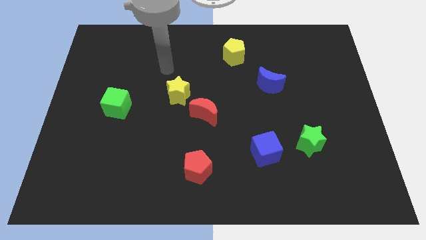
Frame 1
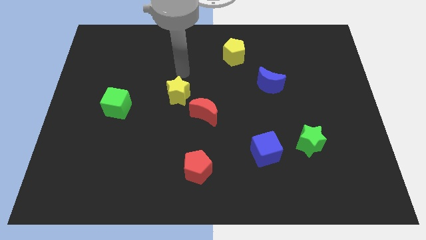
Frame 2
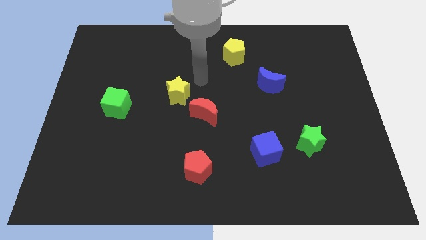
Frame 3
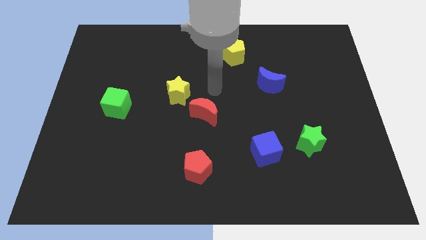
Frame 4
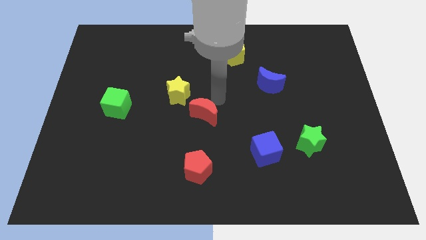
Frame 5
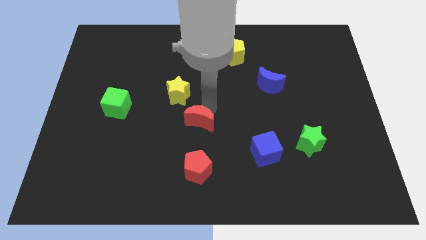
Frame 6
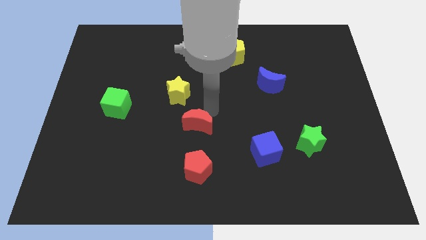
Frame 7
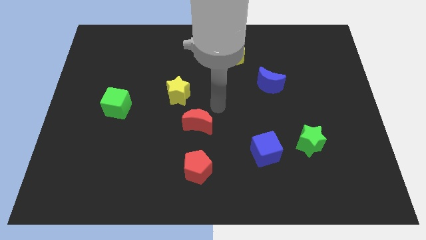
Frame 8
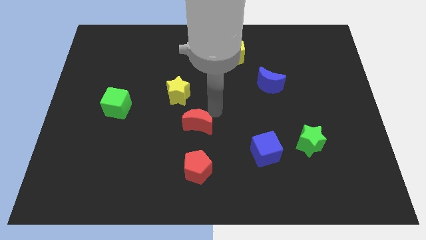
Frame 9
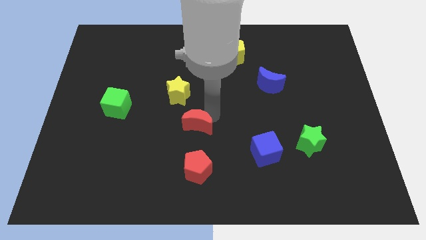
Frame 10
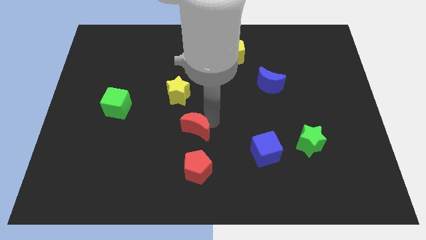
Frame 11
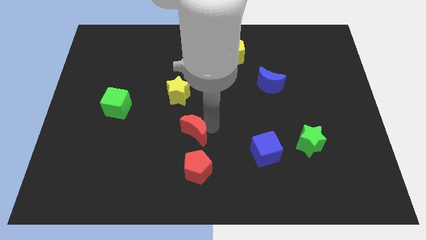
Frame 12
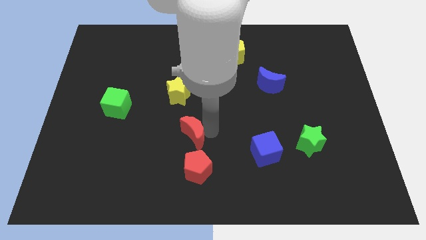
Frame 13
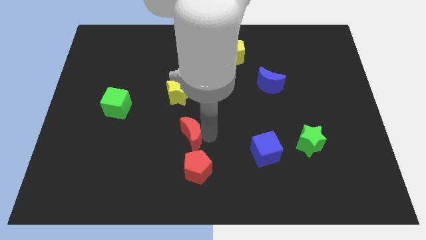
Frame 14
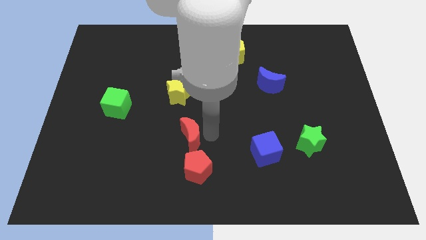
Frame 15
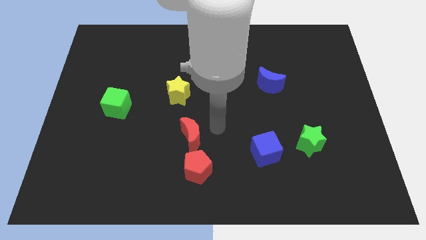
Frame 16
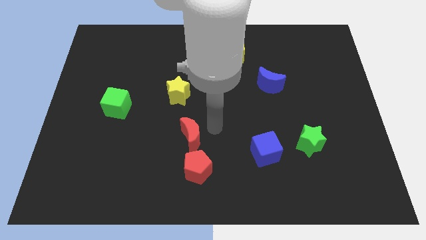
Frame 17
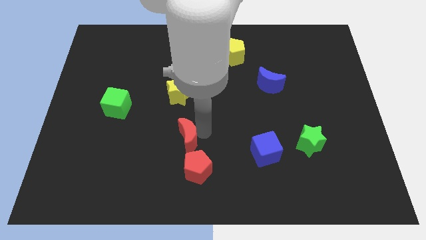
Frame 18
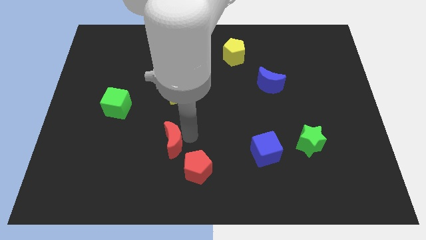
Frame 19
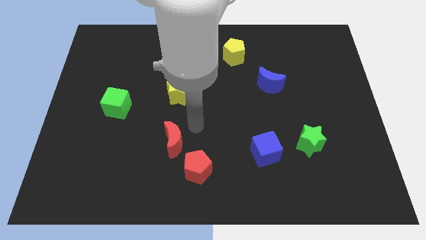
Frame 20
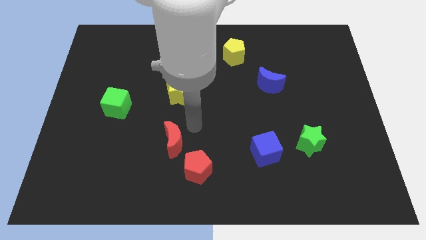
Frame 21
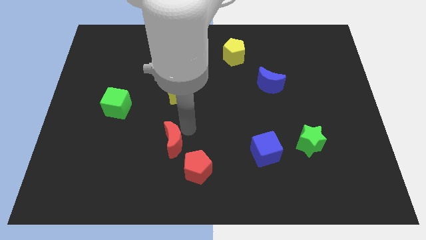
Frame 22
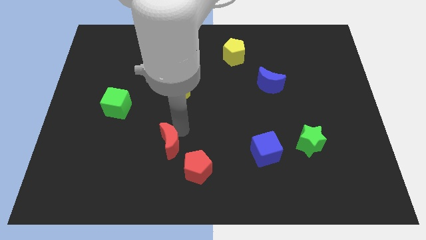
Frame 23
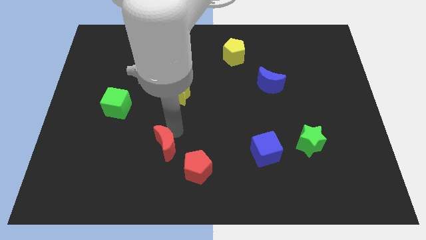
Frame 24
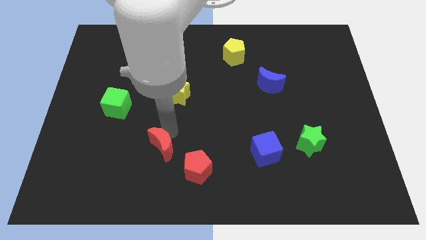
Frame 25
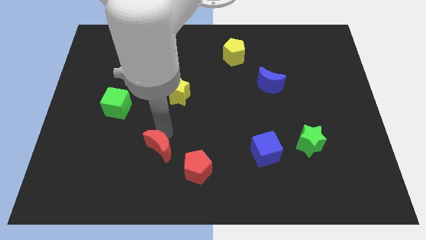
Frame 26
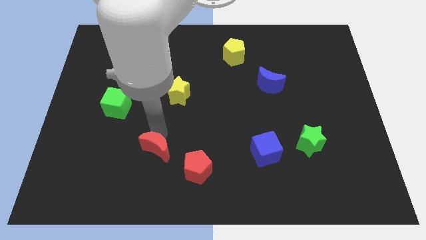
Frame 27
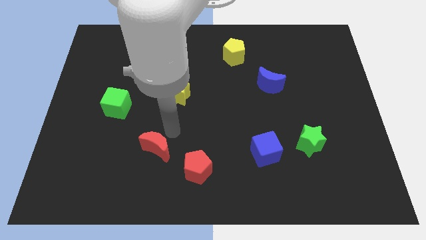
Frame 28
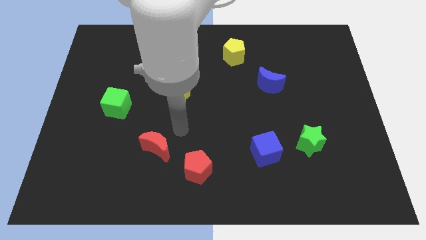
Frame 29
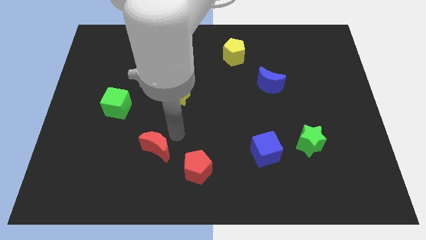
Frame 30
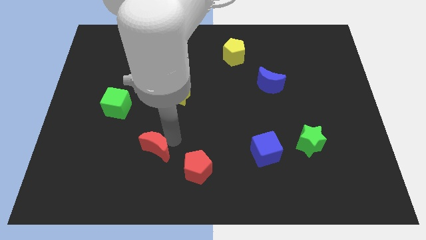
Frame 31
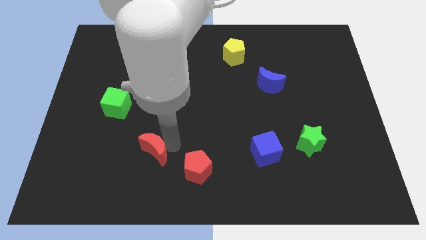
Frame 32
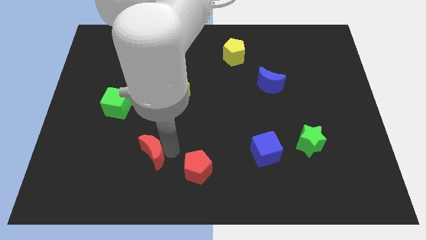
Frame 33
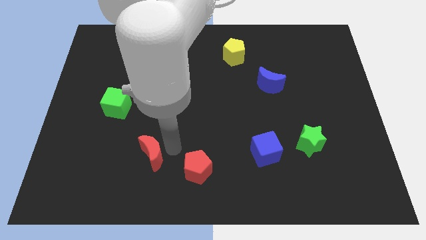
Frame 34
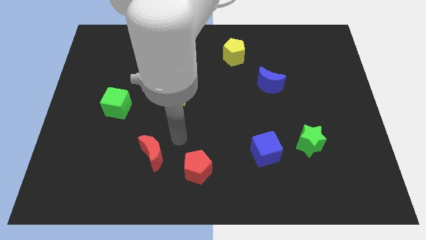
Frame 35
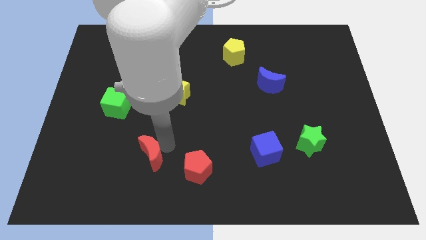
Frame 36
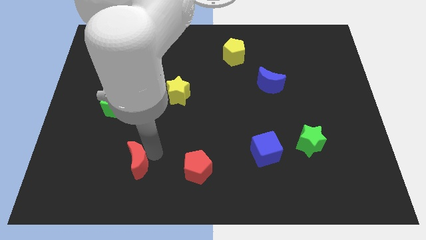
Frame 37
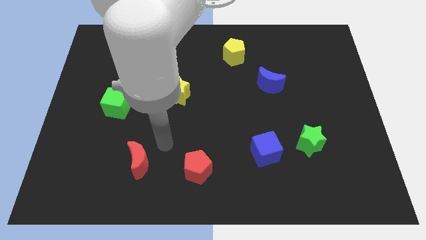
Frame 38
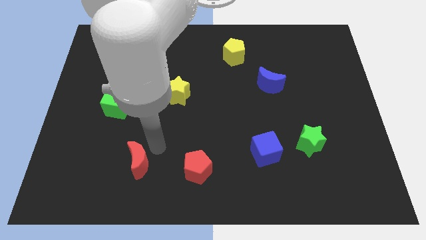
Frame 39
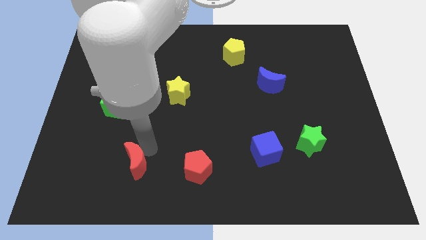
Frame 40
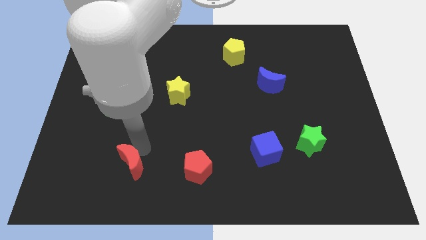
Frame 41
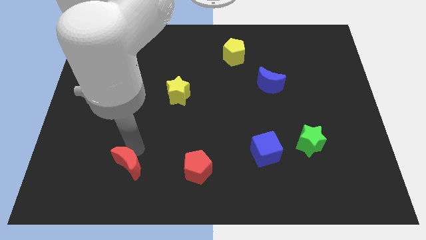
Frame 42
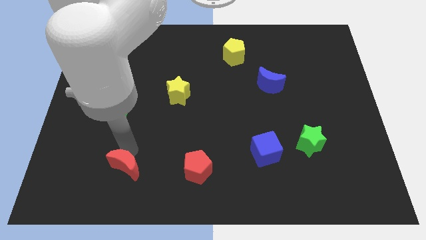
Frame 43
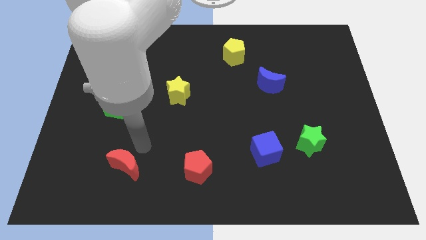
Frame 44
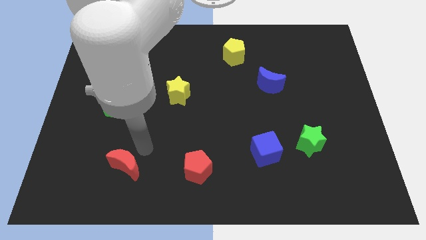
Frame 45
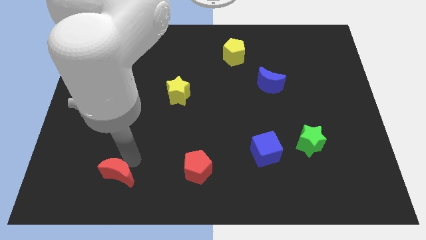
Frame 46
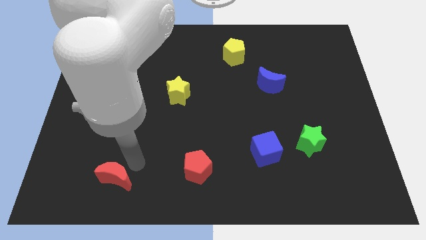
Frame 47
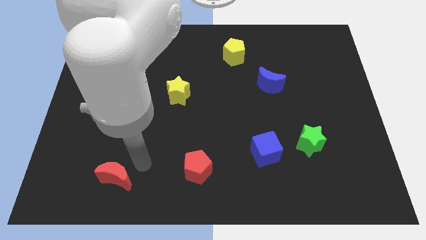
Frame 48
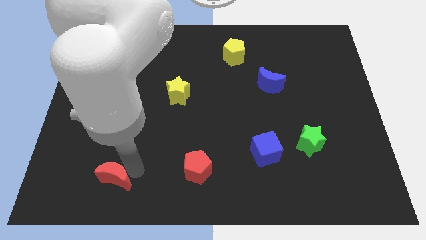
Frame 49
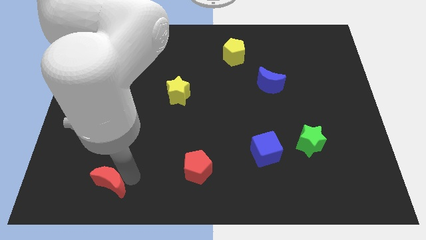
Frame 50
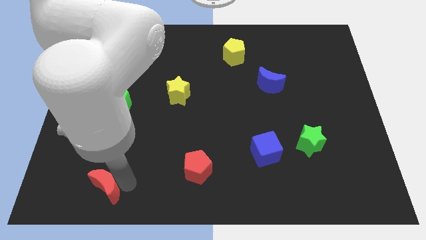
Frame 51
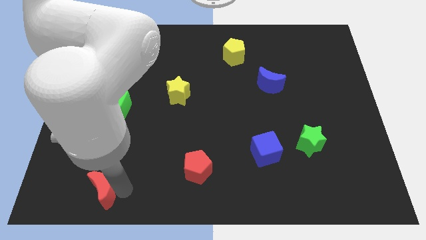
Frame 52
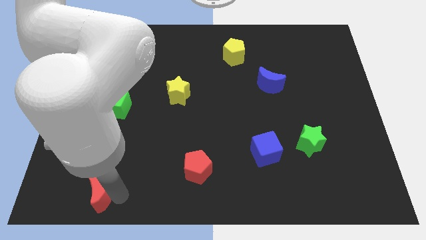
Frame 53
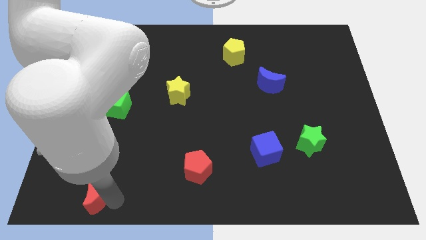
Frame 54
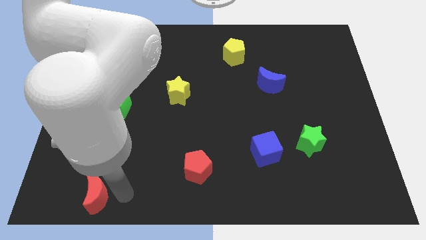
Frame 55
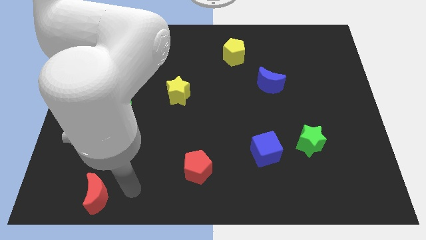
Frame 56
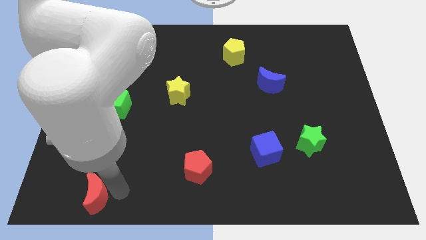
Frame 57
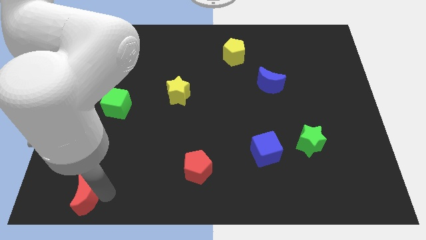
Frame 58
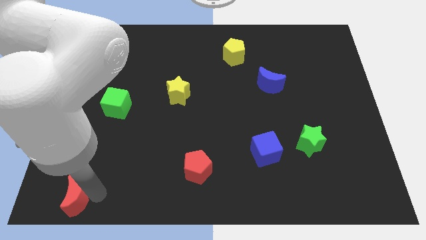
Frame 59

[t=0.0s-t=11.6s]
put the red moon to the bottom left
